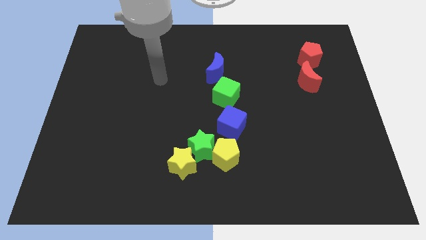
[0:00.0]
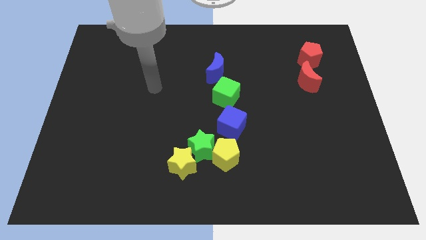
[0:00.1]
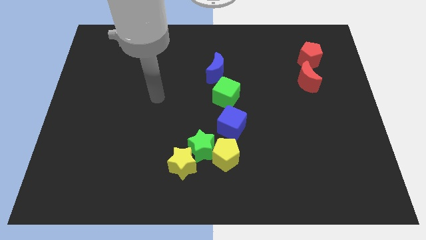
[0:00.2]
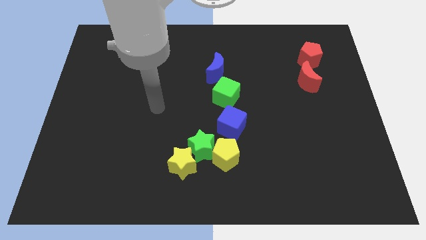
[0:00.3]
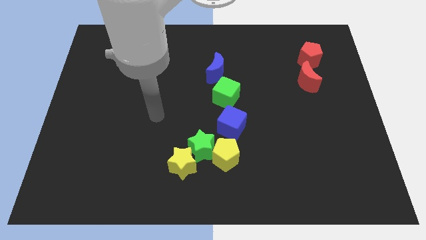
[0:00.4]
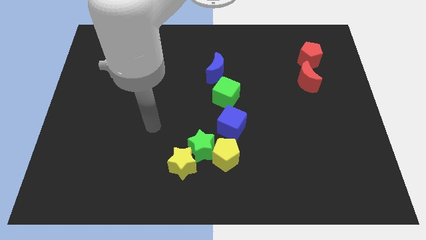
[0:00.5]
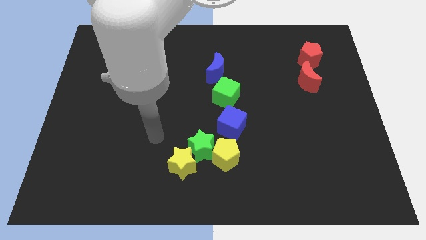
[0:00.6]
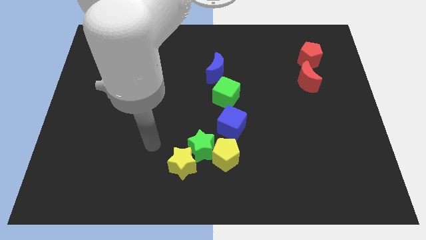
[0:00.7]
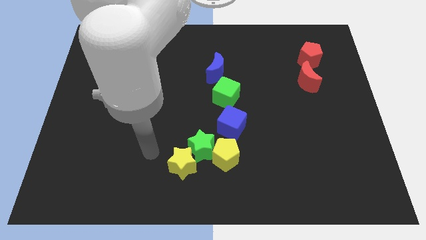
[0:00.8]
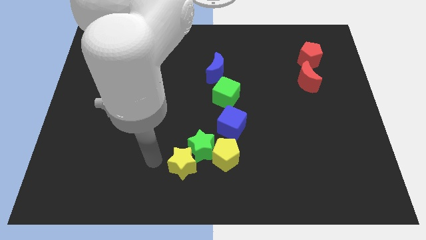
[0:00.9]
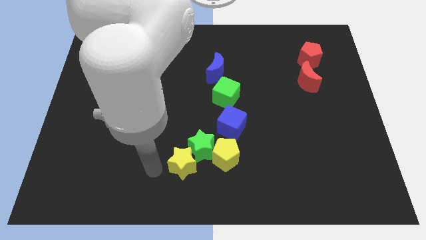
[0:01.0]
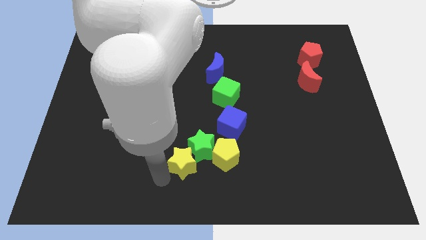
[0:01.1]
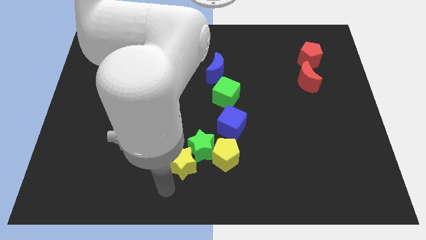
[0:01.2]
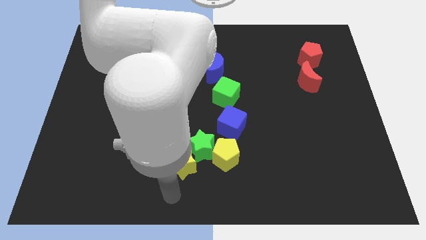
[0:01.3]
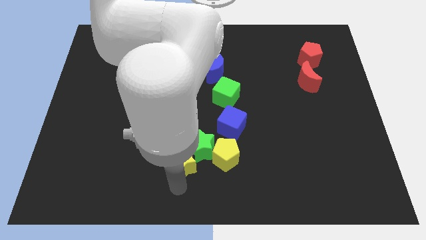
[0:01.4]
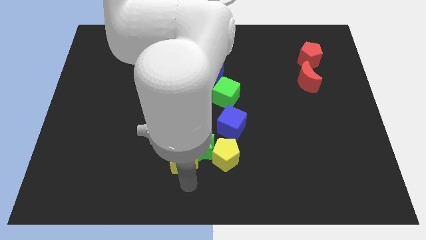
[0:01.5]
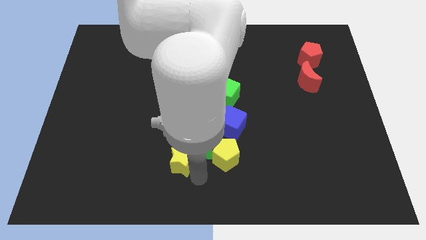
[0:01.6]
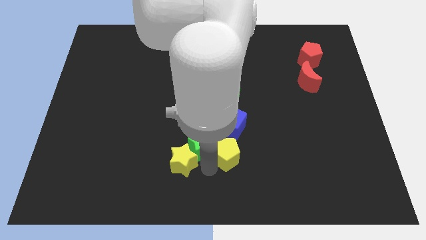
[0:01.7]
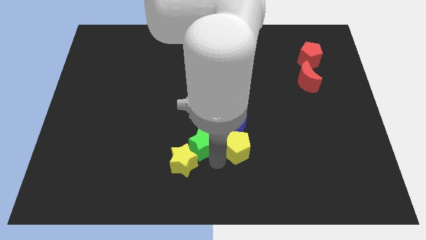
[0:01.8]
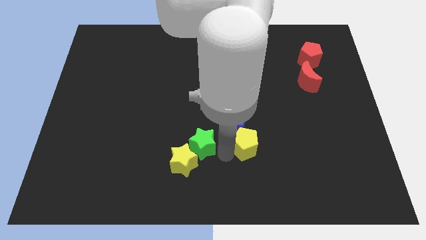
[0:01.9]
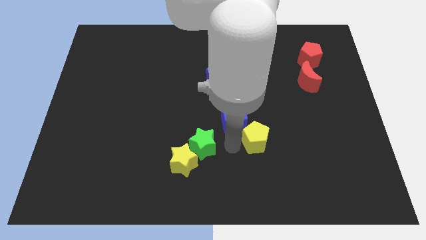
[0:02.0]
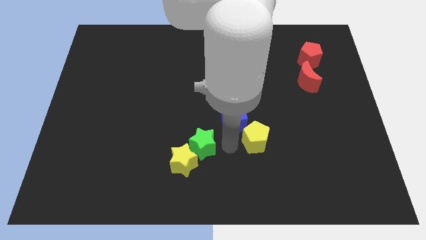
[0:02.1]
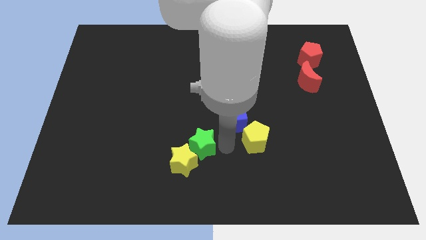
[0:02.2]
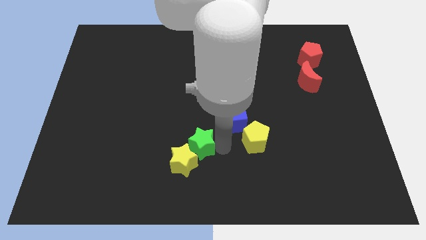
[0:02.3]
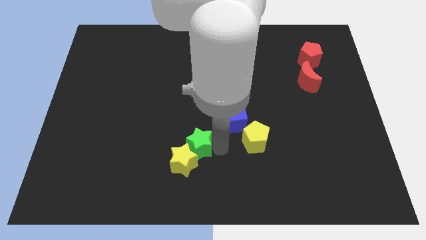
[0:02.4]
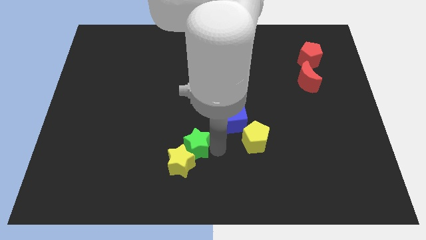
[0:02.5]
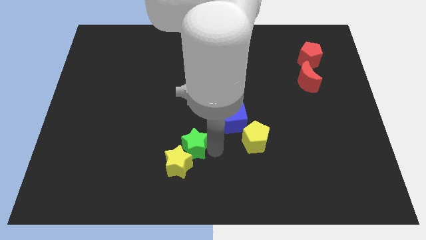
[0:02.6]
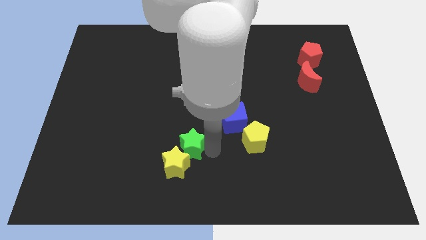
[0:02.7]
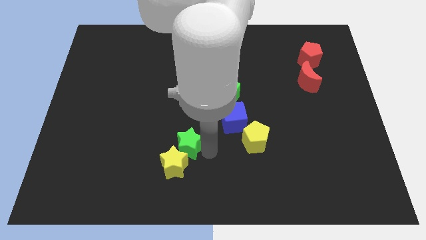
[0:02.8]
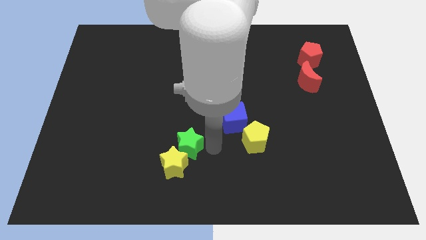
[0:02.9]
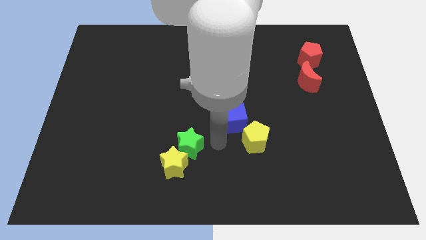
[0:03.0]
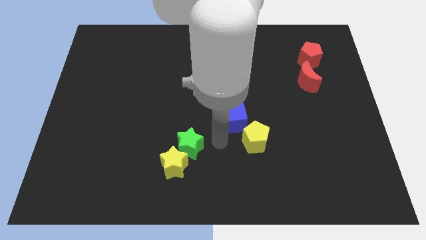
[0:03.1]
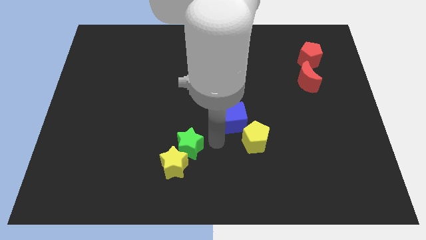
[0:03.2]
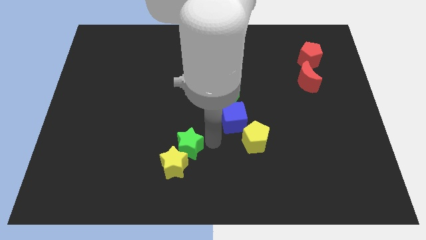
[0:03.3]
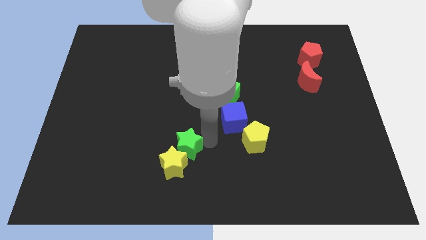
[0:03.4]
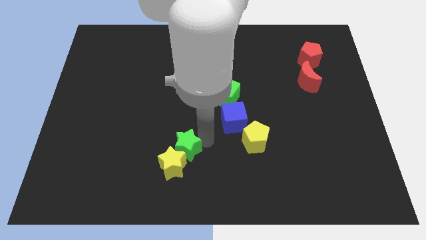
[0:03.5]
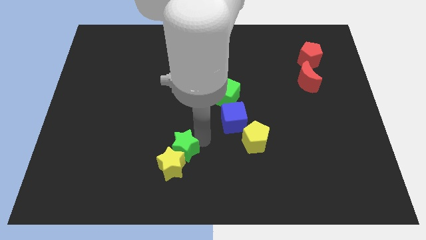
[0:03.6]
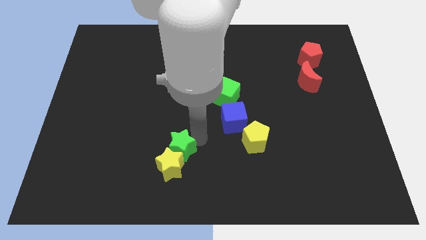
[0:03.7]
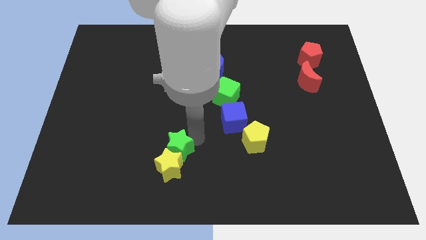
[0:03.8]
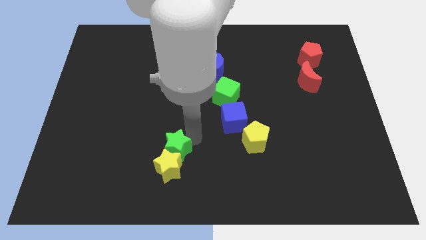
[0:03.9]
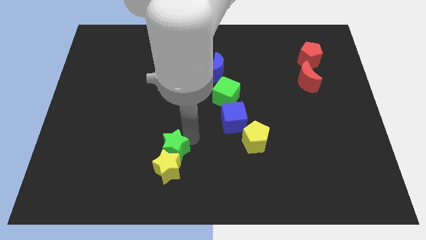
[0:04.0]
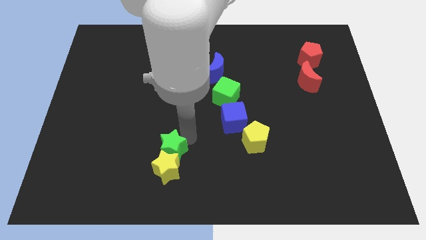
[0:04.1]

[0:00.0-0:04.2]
move the green star away from the yellow pentagon, yellow star, and blue cube

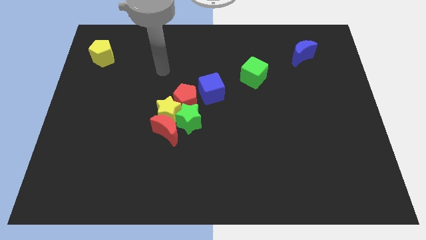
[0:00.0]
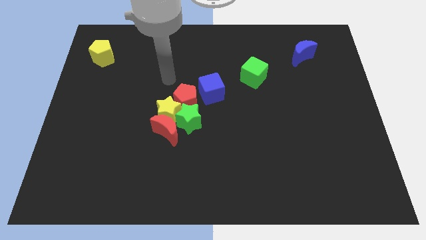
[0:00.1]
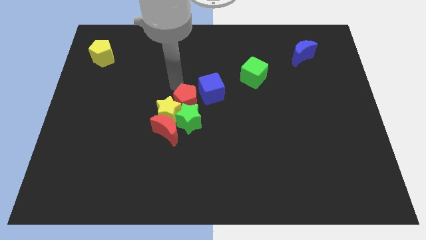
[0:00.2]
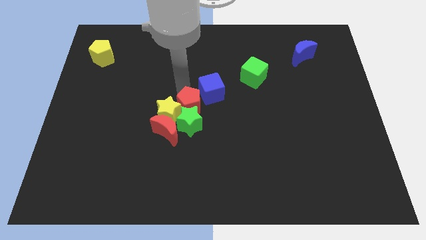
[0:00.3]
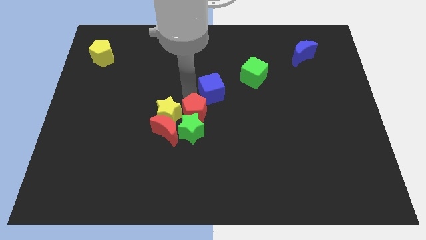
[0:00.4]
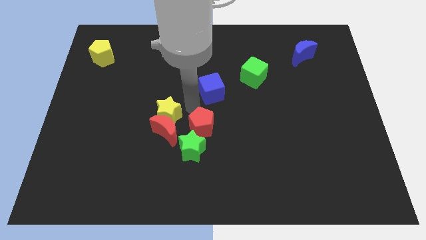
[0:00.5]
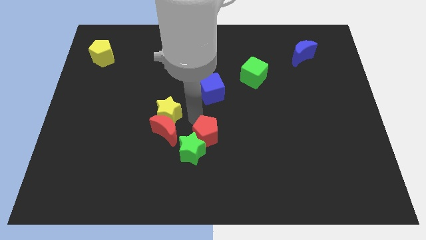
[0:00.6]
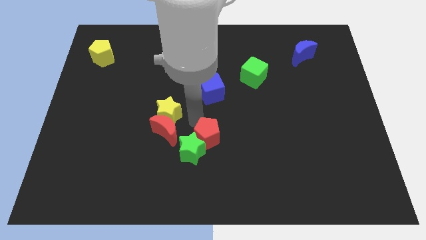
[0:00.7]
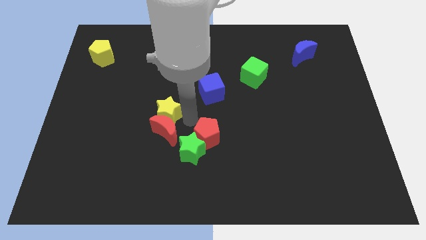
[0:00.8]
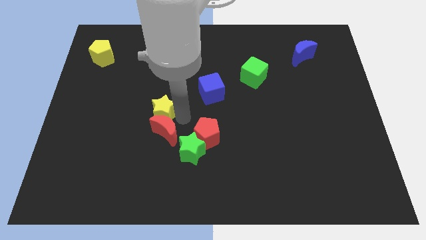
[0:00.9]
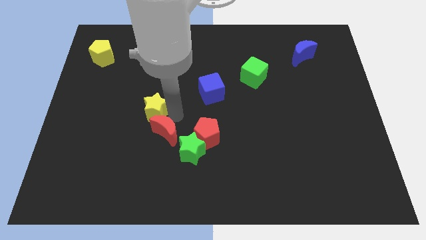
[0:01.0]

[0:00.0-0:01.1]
move the yellow star away from the group

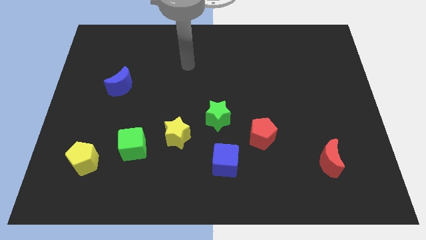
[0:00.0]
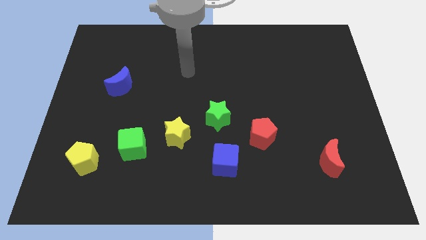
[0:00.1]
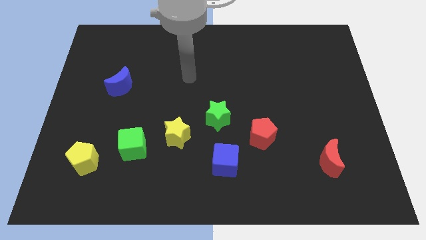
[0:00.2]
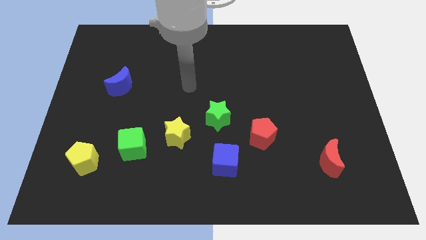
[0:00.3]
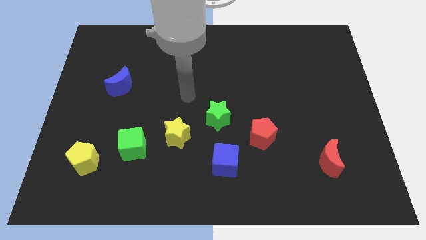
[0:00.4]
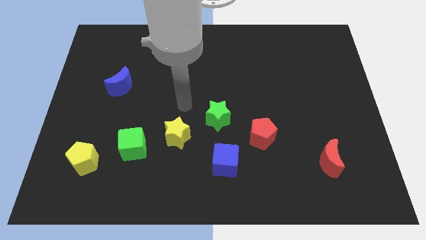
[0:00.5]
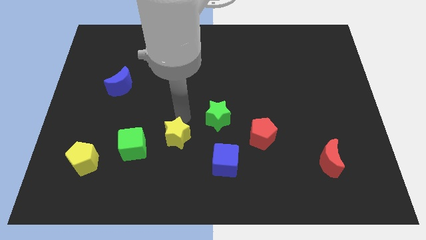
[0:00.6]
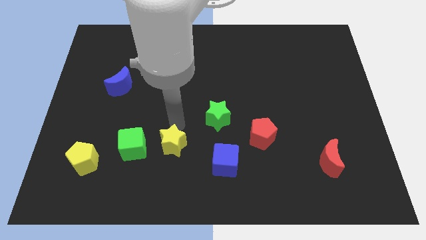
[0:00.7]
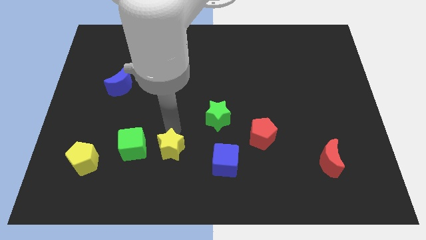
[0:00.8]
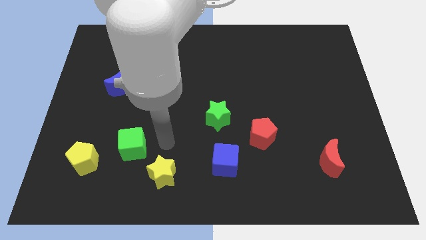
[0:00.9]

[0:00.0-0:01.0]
move the green cube away from the yellow star

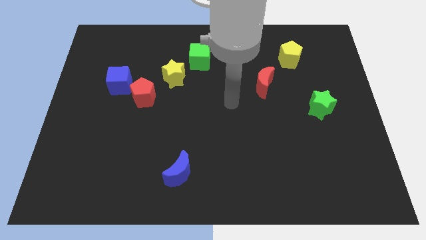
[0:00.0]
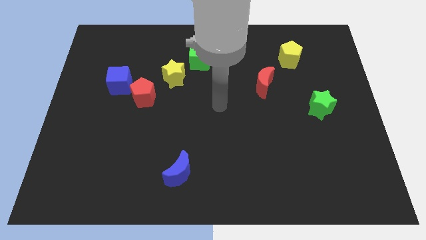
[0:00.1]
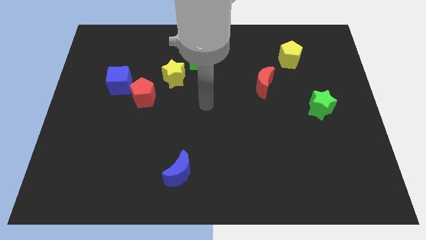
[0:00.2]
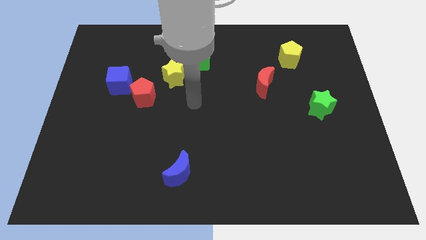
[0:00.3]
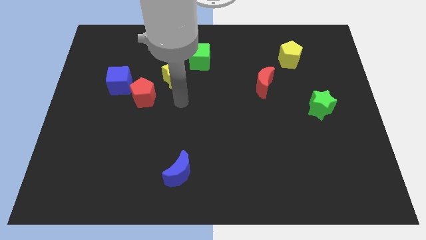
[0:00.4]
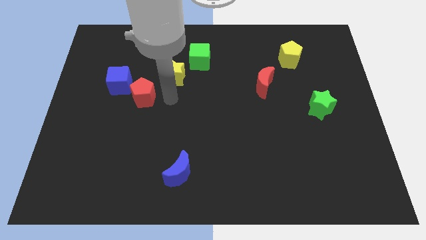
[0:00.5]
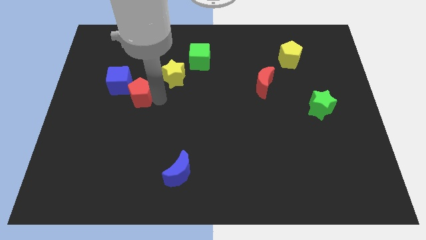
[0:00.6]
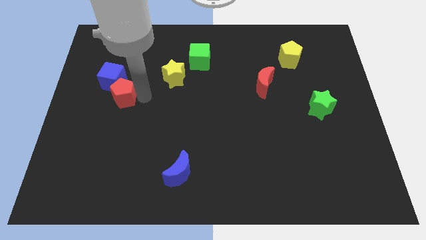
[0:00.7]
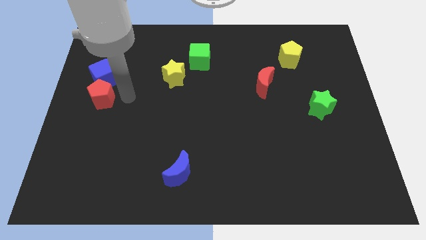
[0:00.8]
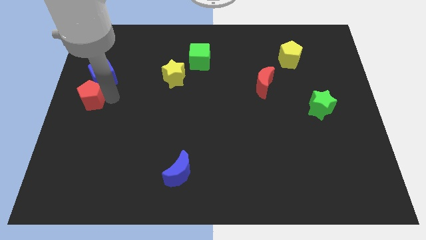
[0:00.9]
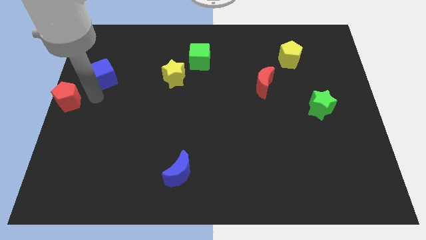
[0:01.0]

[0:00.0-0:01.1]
separate the blue cube from the red pentagon

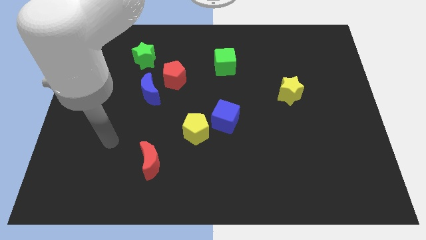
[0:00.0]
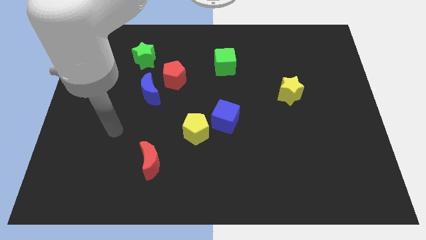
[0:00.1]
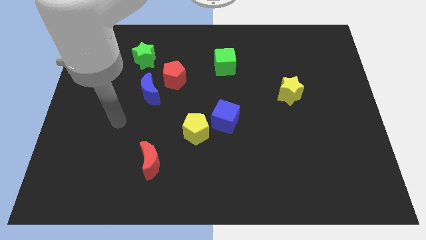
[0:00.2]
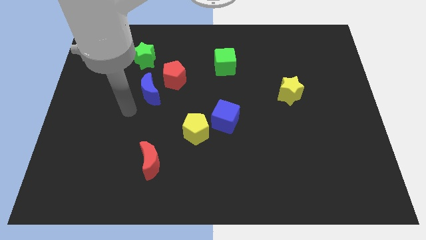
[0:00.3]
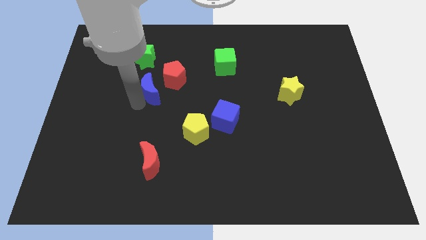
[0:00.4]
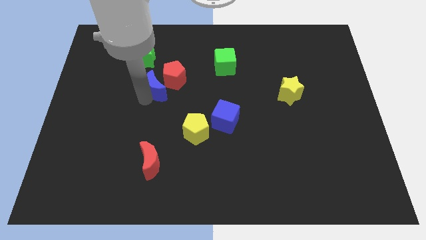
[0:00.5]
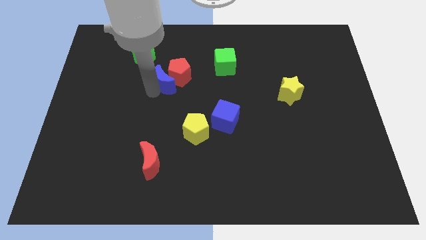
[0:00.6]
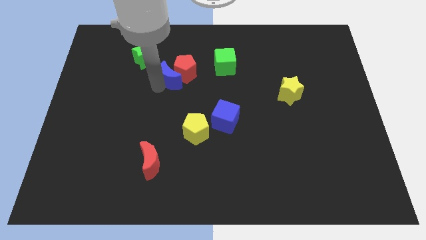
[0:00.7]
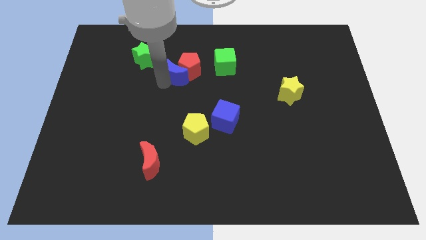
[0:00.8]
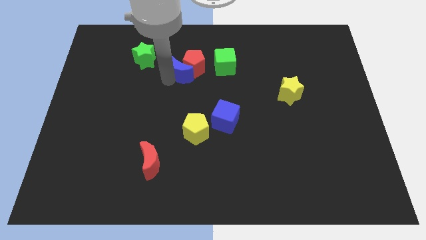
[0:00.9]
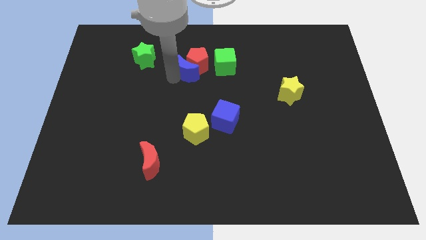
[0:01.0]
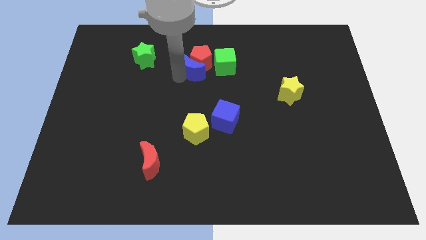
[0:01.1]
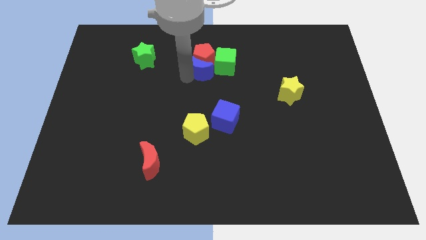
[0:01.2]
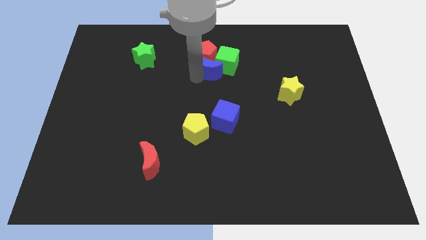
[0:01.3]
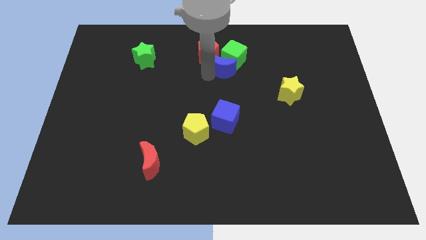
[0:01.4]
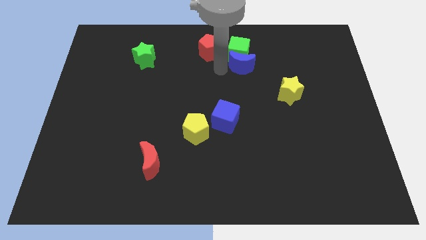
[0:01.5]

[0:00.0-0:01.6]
move the red pentagon away from the blue moon

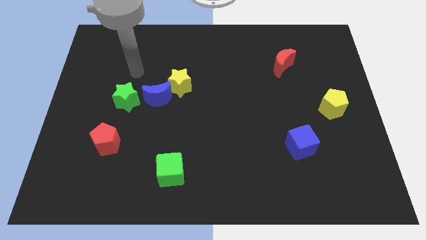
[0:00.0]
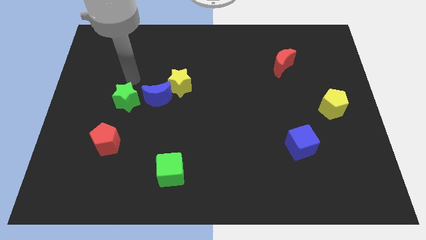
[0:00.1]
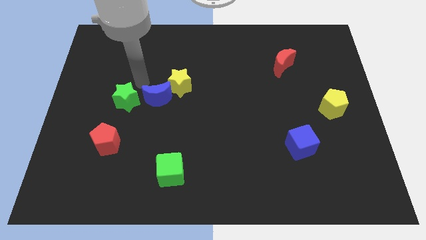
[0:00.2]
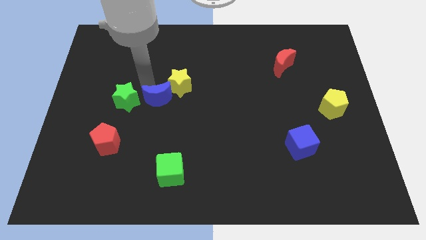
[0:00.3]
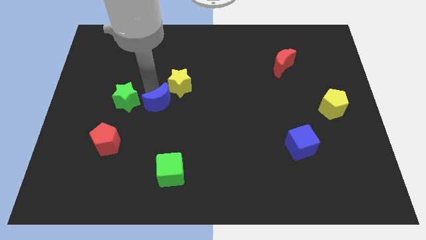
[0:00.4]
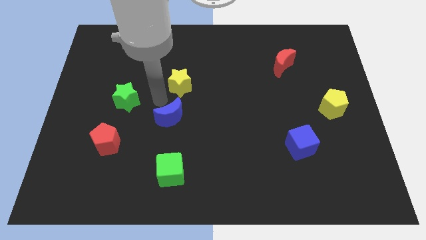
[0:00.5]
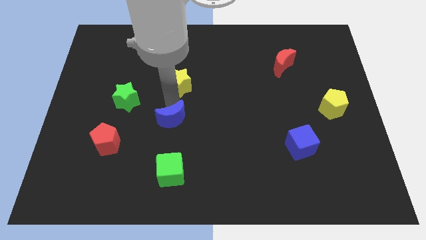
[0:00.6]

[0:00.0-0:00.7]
move the yellow star away from the blue moon
